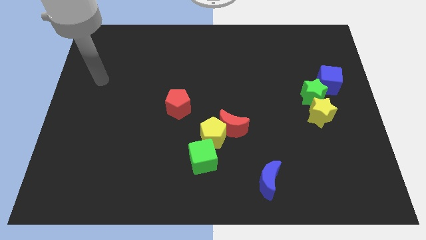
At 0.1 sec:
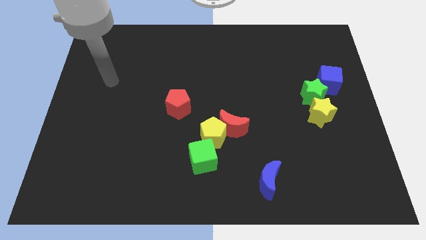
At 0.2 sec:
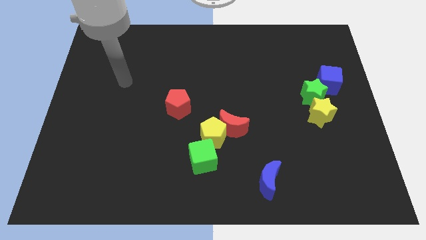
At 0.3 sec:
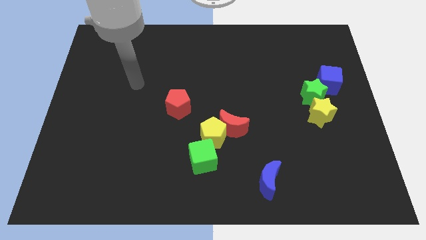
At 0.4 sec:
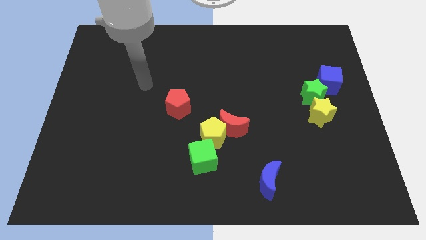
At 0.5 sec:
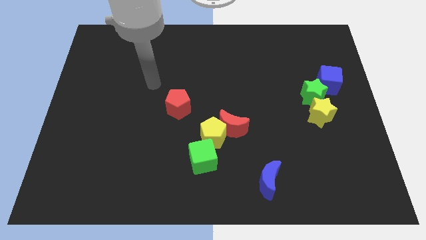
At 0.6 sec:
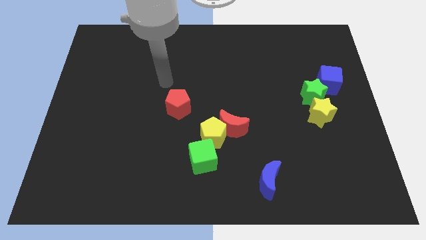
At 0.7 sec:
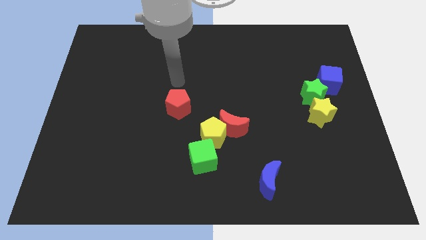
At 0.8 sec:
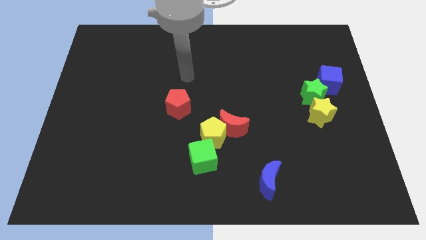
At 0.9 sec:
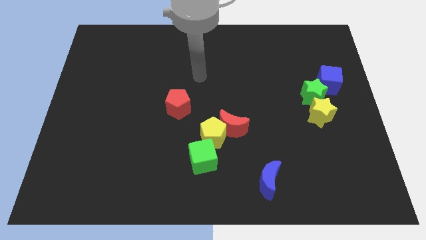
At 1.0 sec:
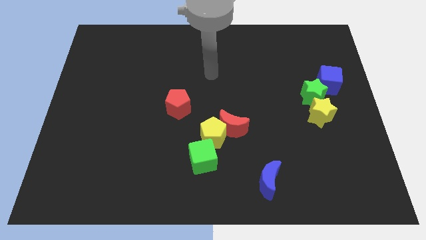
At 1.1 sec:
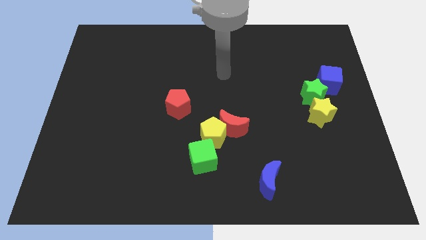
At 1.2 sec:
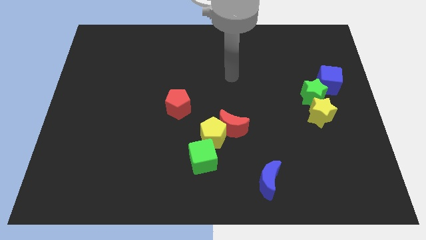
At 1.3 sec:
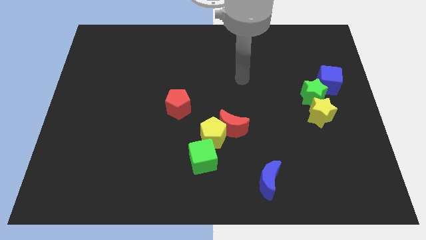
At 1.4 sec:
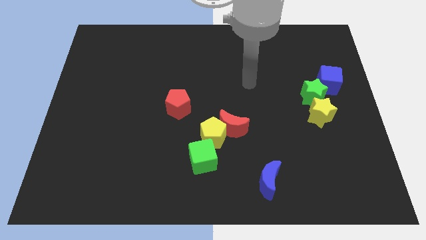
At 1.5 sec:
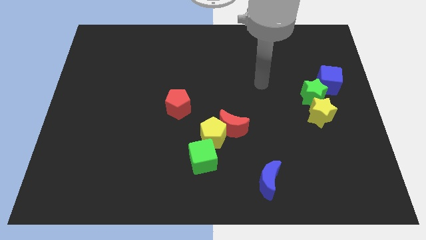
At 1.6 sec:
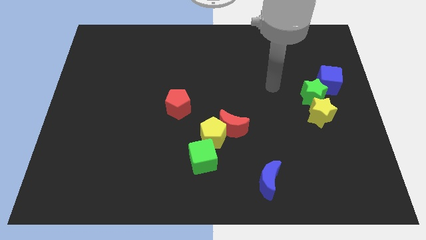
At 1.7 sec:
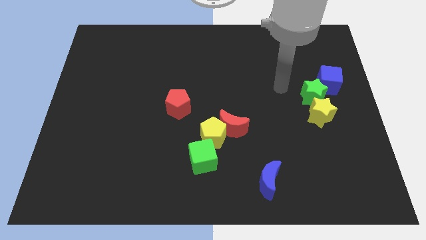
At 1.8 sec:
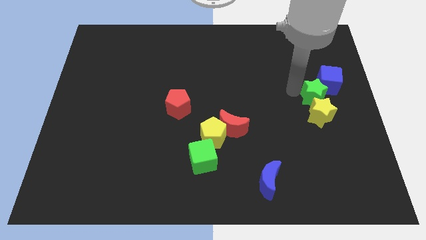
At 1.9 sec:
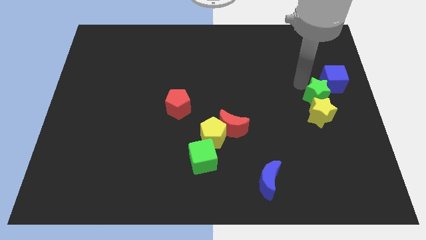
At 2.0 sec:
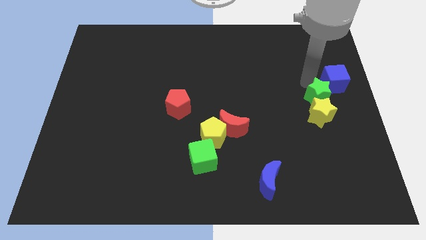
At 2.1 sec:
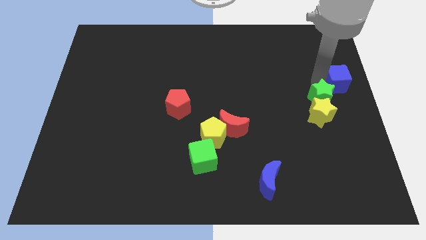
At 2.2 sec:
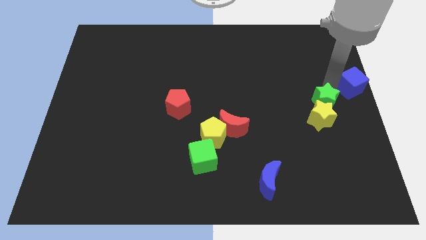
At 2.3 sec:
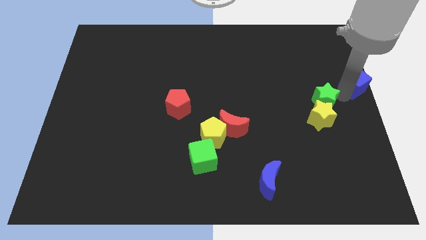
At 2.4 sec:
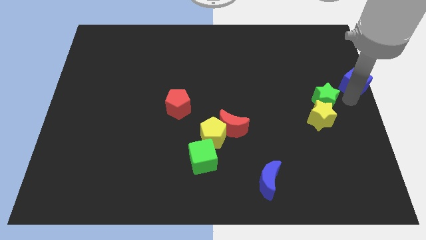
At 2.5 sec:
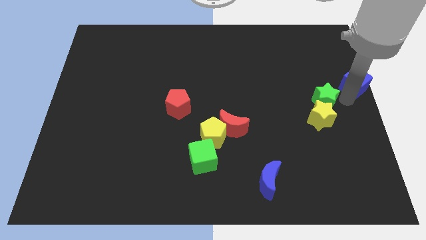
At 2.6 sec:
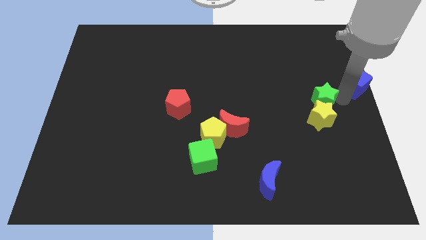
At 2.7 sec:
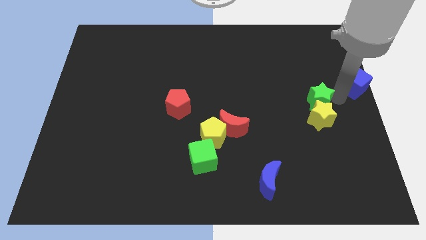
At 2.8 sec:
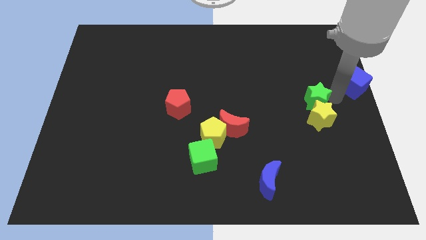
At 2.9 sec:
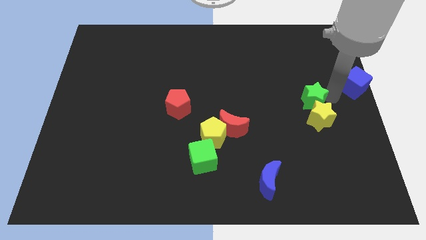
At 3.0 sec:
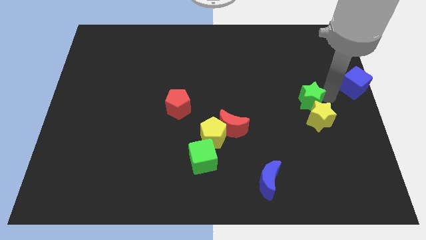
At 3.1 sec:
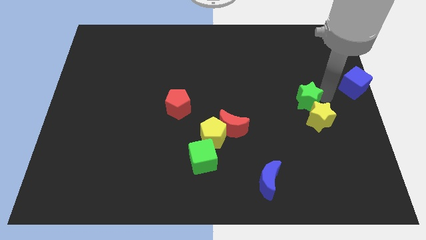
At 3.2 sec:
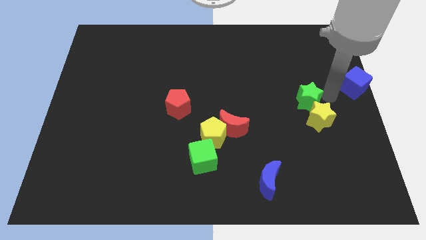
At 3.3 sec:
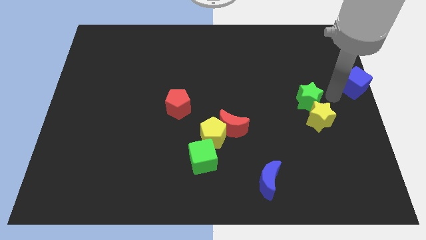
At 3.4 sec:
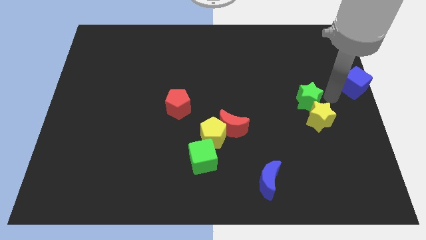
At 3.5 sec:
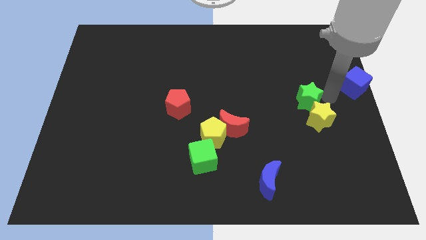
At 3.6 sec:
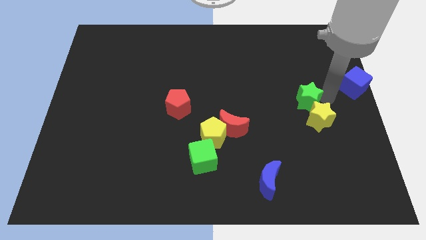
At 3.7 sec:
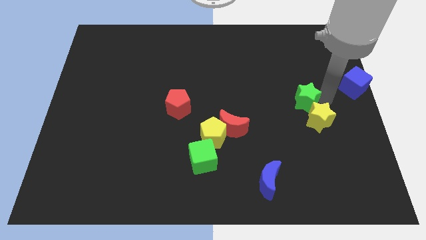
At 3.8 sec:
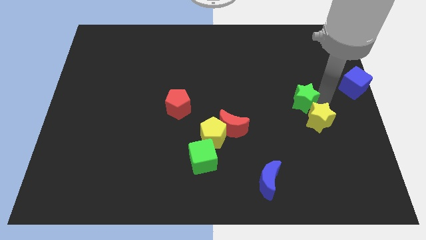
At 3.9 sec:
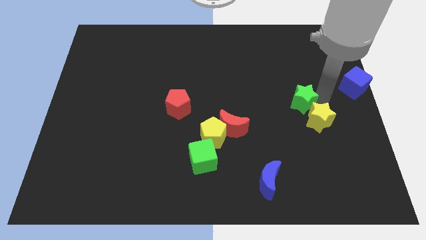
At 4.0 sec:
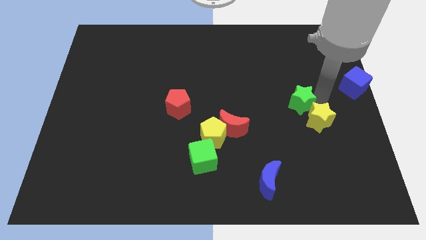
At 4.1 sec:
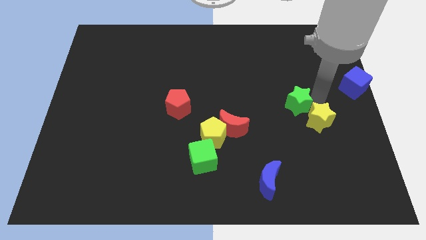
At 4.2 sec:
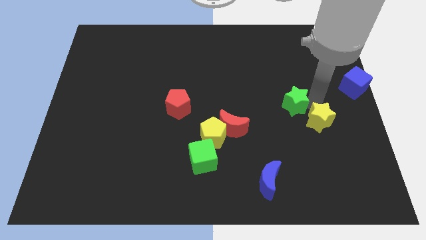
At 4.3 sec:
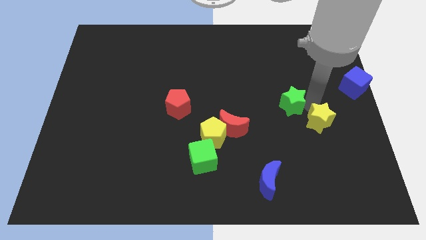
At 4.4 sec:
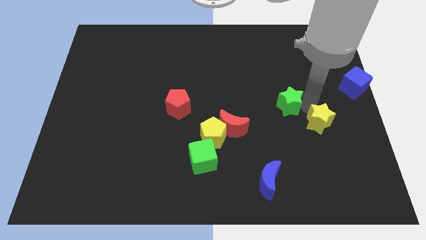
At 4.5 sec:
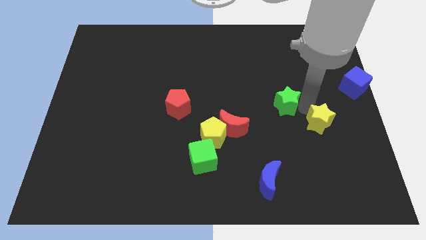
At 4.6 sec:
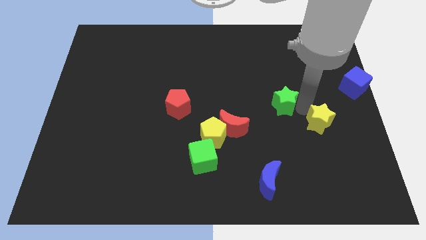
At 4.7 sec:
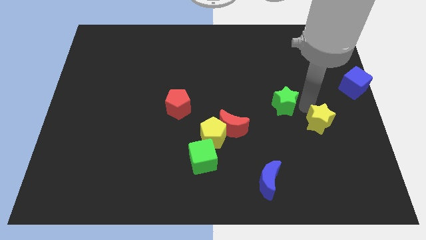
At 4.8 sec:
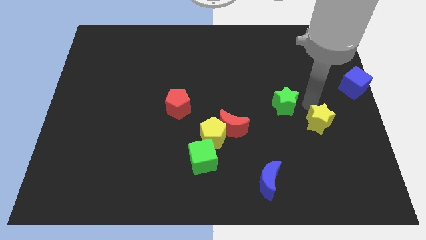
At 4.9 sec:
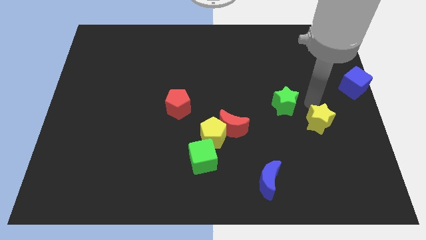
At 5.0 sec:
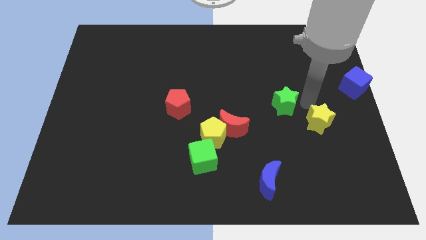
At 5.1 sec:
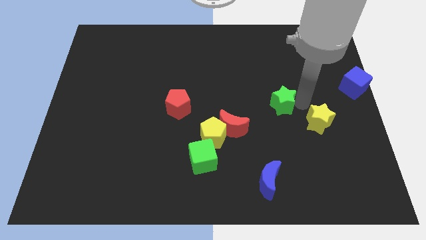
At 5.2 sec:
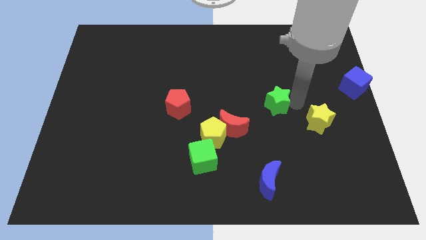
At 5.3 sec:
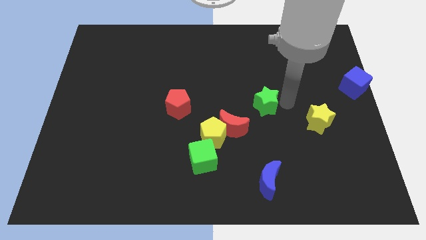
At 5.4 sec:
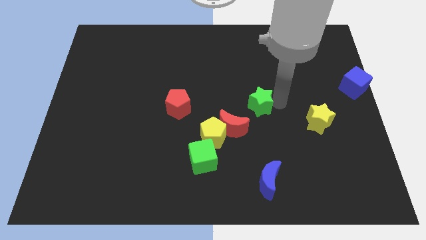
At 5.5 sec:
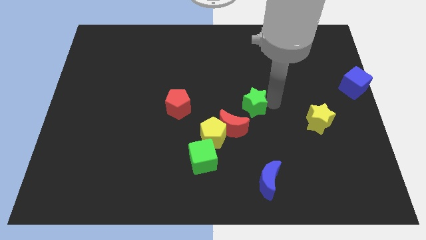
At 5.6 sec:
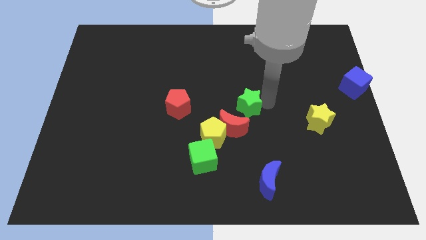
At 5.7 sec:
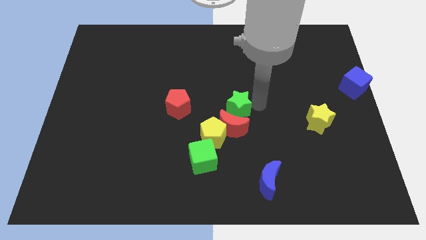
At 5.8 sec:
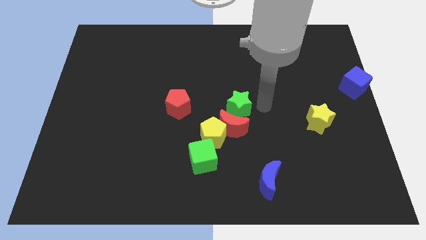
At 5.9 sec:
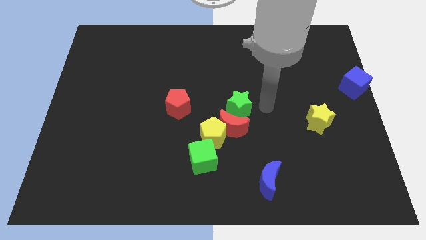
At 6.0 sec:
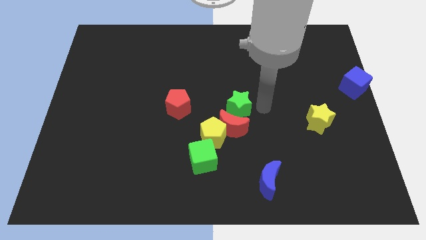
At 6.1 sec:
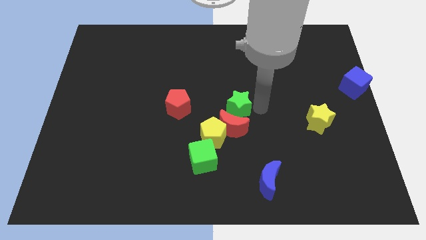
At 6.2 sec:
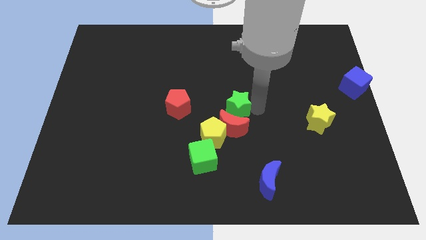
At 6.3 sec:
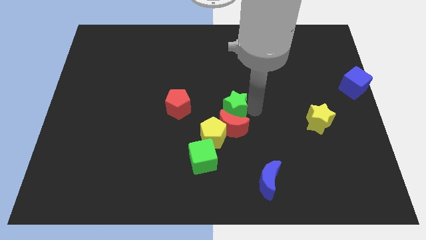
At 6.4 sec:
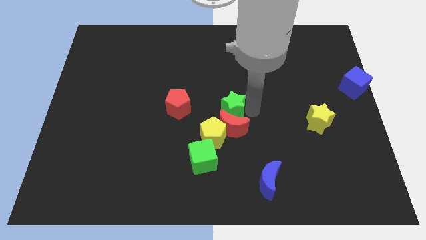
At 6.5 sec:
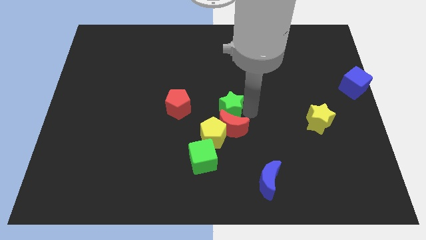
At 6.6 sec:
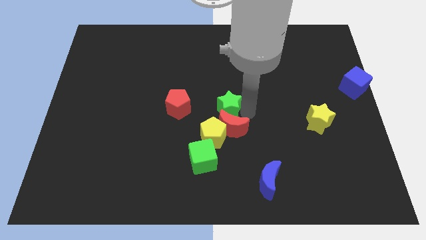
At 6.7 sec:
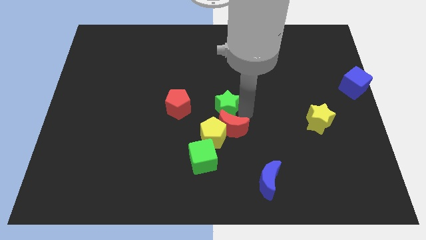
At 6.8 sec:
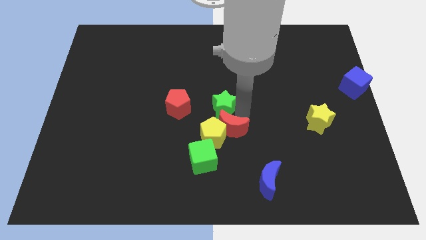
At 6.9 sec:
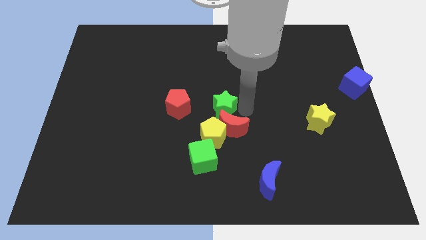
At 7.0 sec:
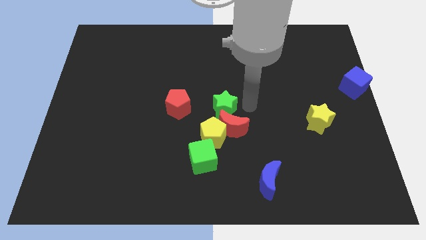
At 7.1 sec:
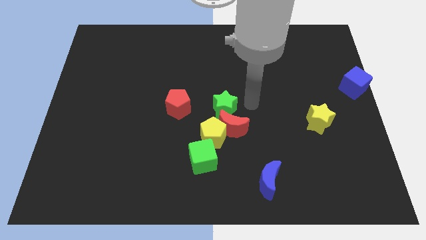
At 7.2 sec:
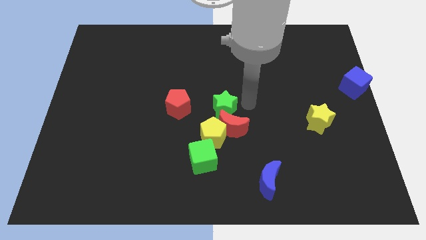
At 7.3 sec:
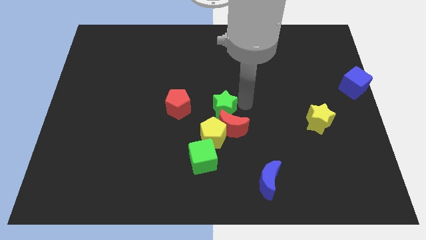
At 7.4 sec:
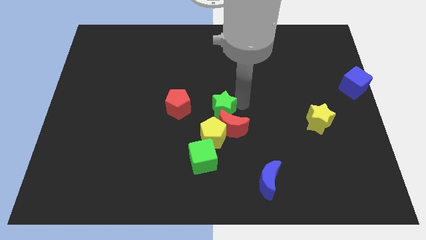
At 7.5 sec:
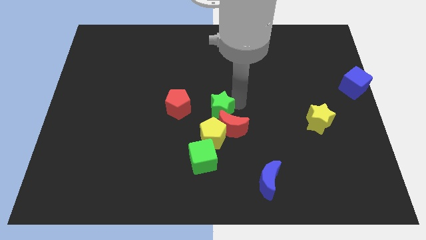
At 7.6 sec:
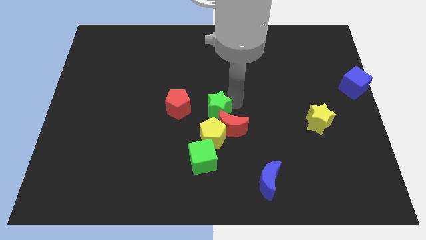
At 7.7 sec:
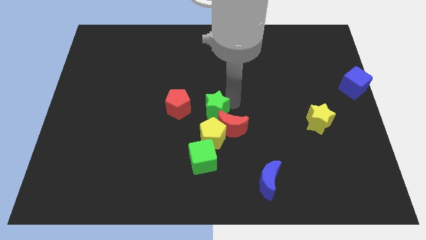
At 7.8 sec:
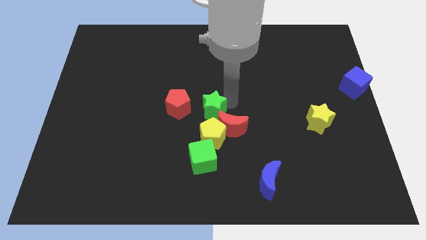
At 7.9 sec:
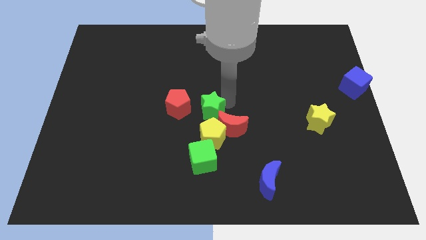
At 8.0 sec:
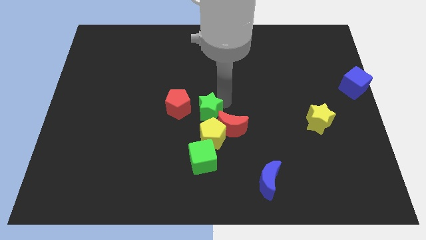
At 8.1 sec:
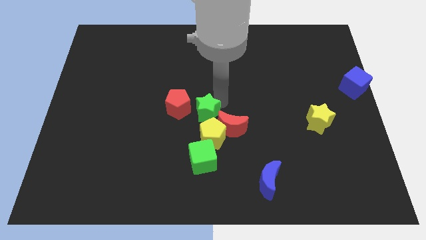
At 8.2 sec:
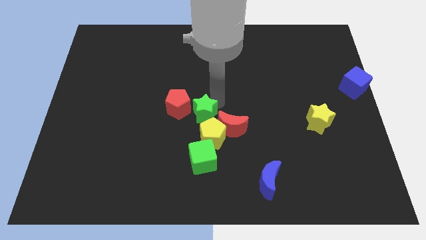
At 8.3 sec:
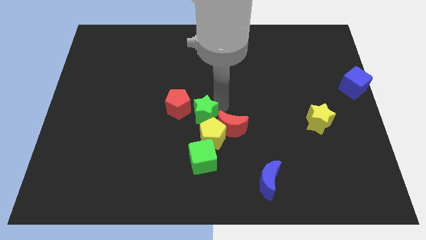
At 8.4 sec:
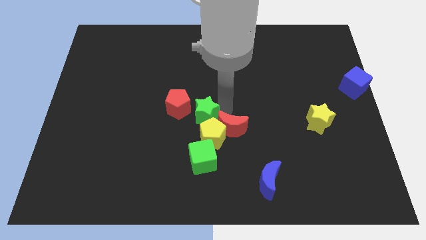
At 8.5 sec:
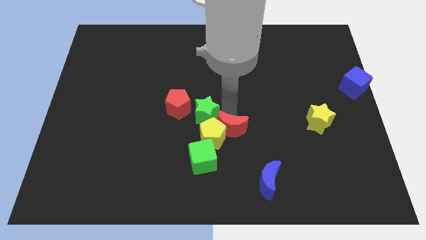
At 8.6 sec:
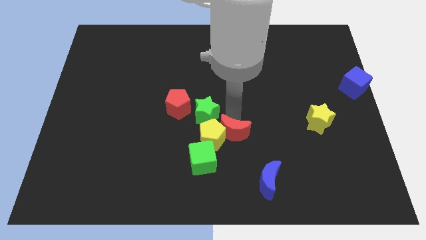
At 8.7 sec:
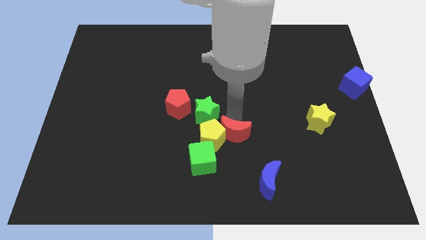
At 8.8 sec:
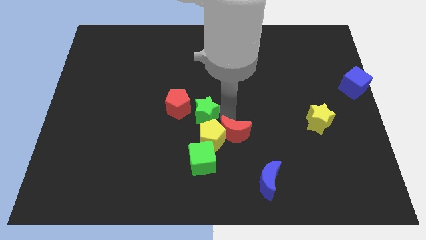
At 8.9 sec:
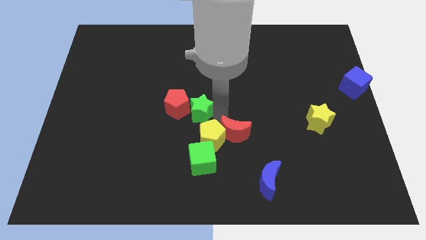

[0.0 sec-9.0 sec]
move the green star next to the red pentagon
